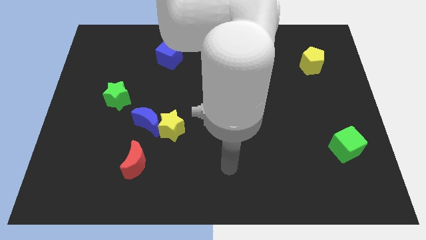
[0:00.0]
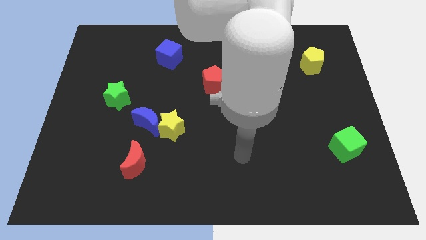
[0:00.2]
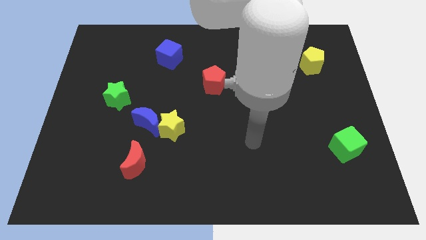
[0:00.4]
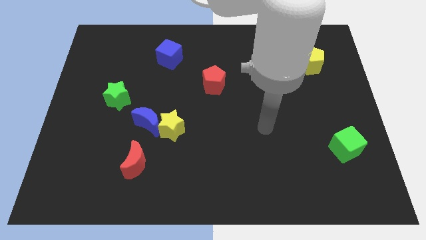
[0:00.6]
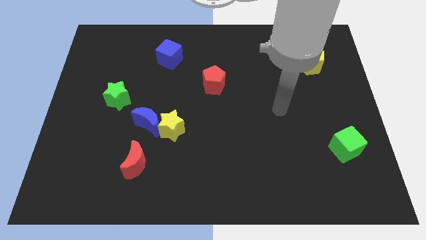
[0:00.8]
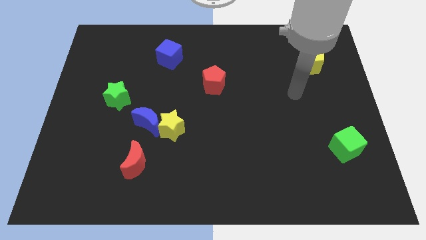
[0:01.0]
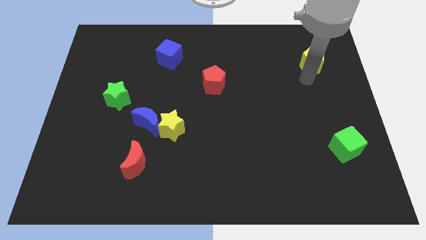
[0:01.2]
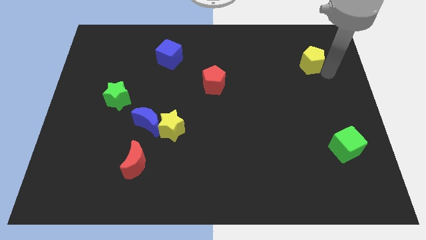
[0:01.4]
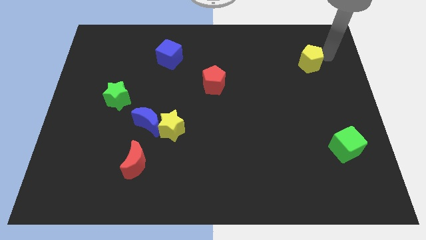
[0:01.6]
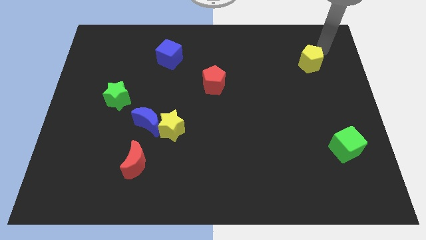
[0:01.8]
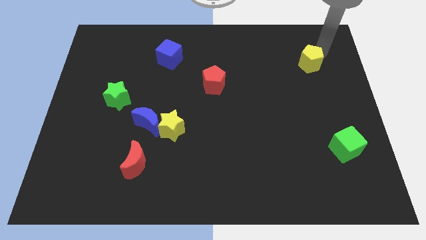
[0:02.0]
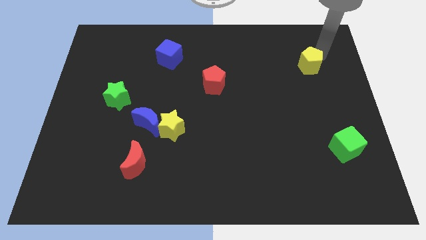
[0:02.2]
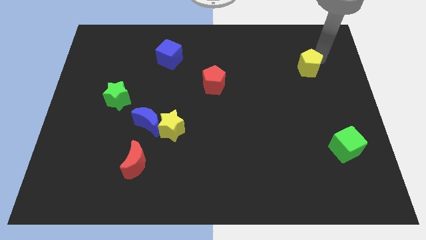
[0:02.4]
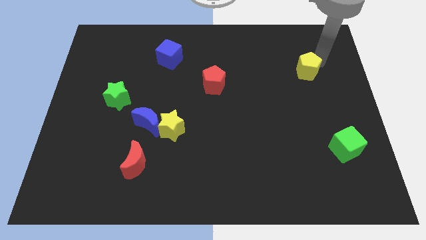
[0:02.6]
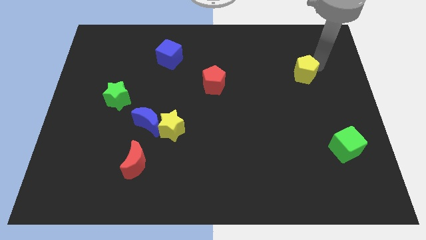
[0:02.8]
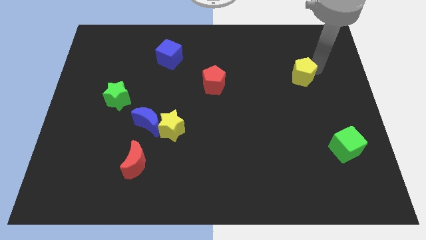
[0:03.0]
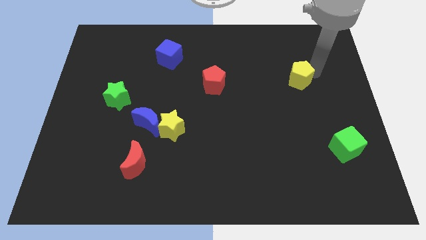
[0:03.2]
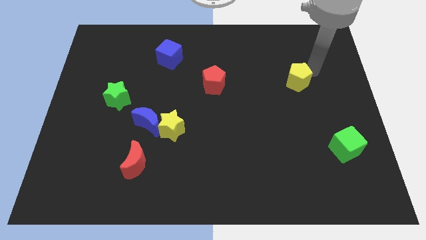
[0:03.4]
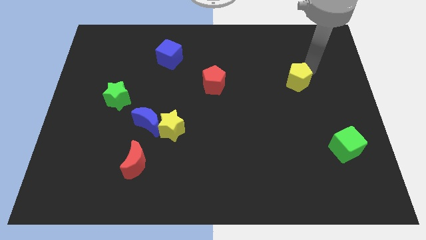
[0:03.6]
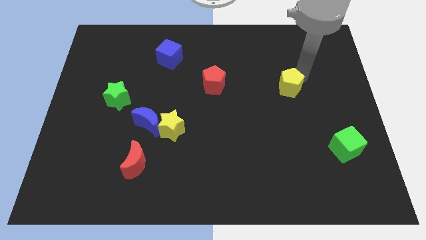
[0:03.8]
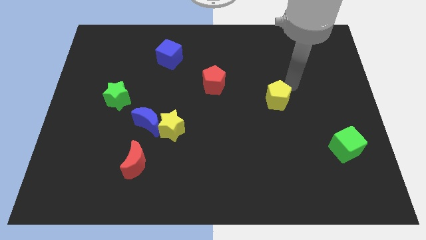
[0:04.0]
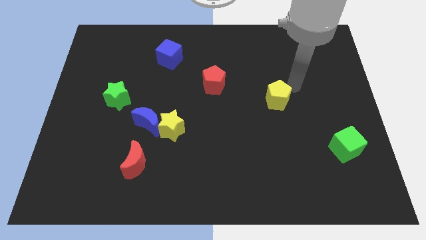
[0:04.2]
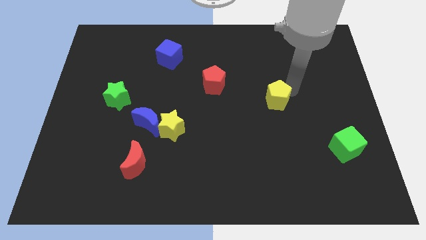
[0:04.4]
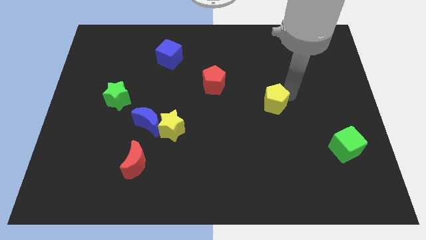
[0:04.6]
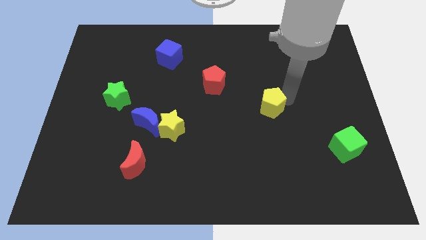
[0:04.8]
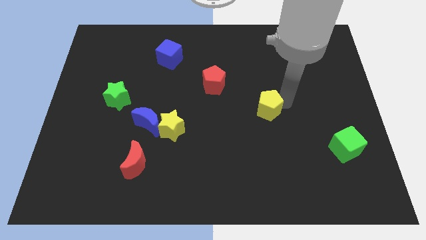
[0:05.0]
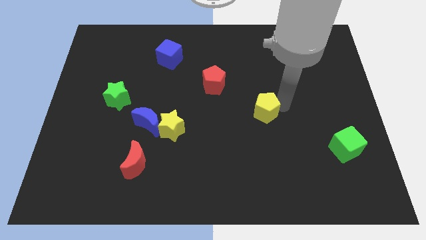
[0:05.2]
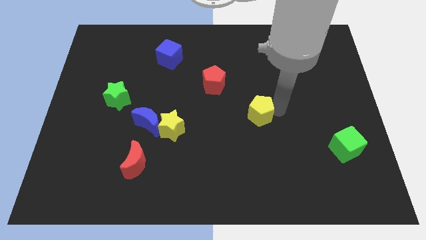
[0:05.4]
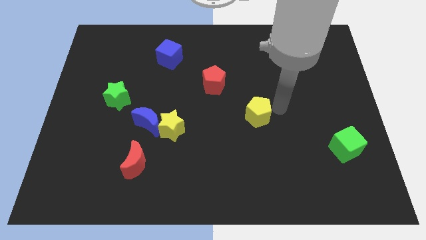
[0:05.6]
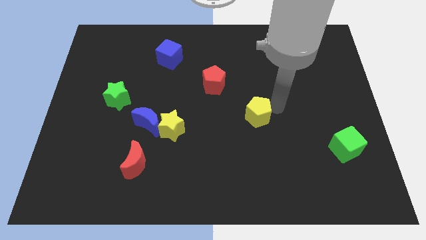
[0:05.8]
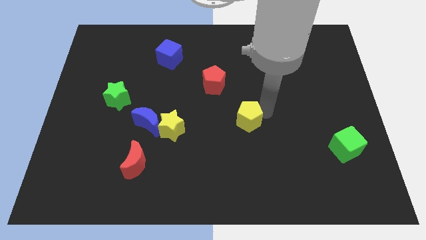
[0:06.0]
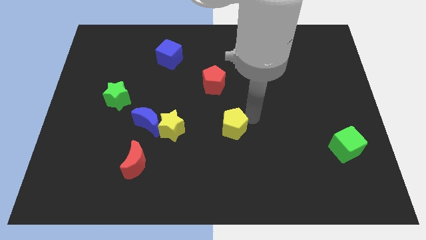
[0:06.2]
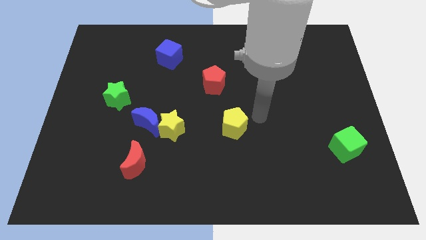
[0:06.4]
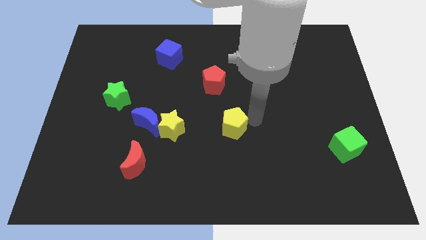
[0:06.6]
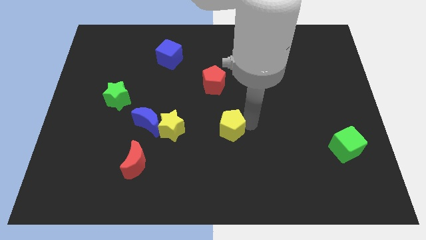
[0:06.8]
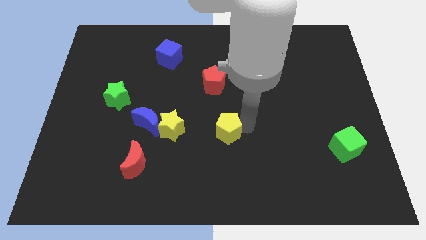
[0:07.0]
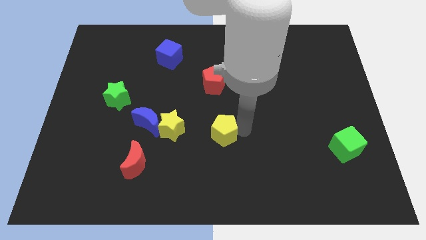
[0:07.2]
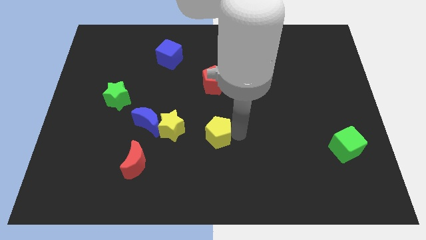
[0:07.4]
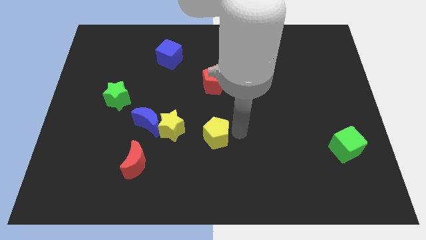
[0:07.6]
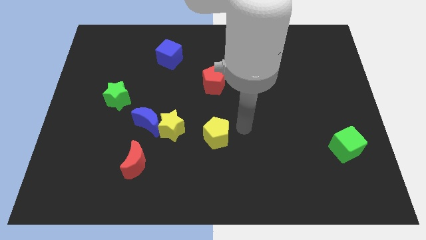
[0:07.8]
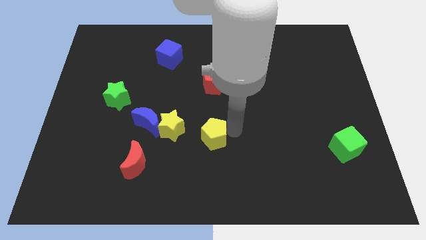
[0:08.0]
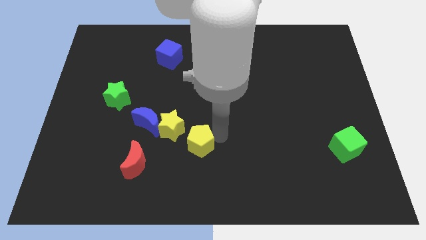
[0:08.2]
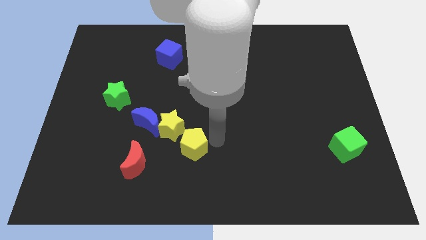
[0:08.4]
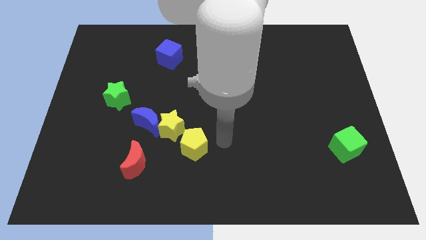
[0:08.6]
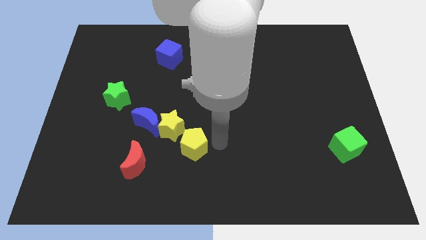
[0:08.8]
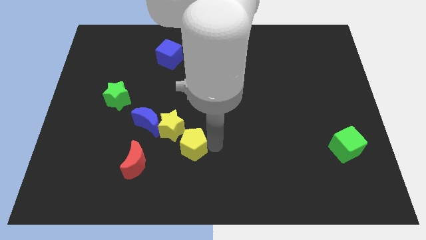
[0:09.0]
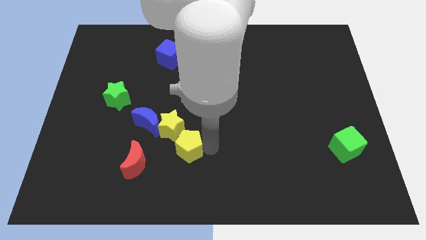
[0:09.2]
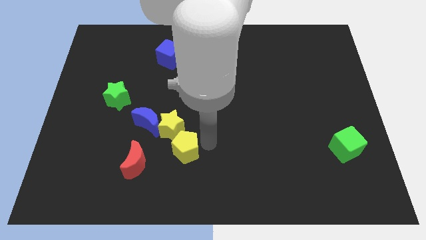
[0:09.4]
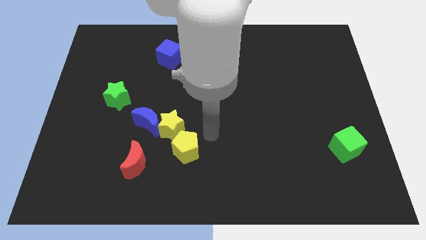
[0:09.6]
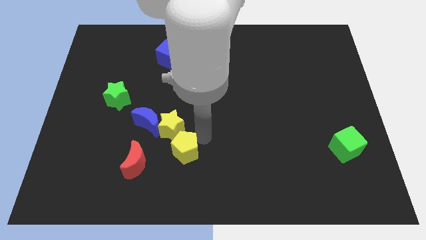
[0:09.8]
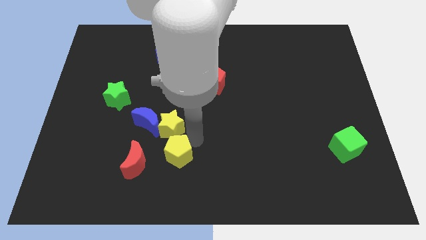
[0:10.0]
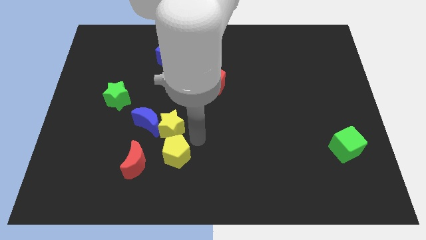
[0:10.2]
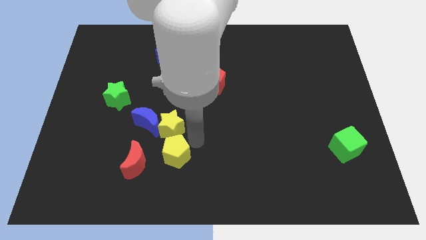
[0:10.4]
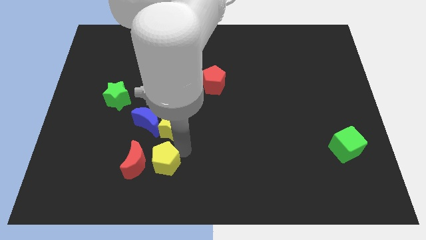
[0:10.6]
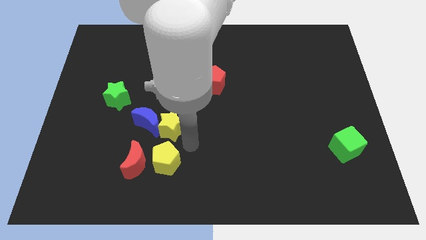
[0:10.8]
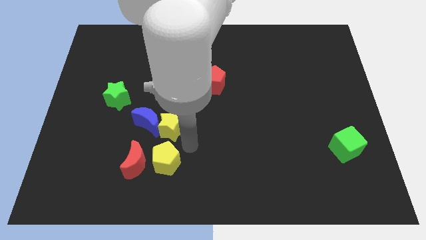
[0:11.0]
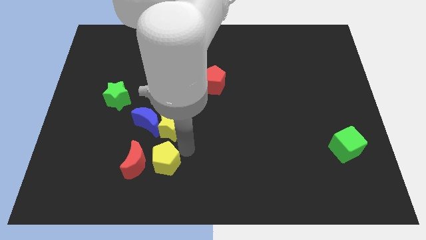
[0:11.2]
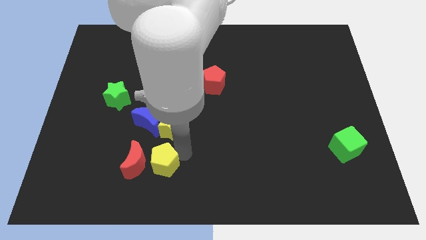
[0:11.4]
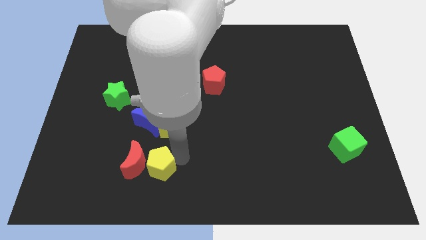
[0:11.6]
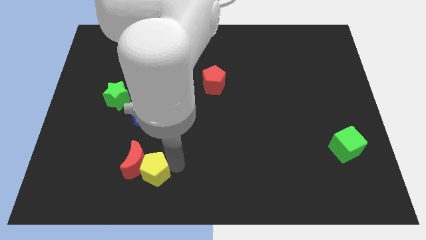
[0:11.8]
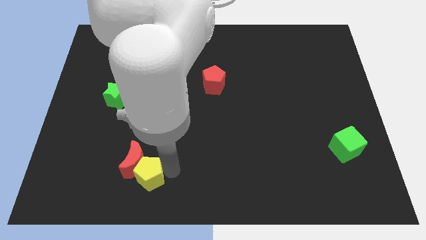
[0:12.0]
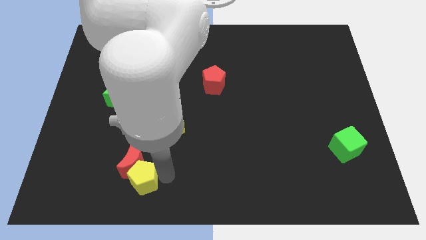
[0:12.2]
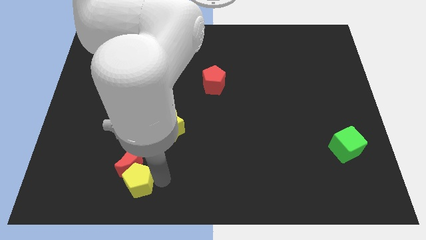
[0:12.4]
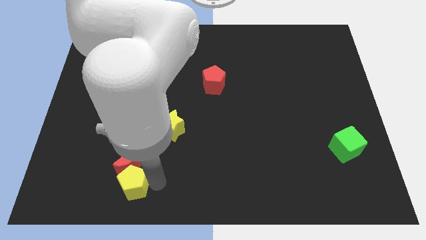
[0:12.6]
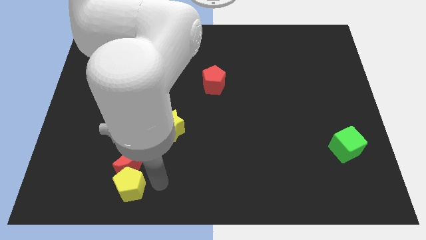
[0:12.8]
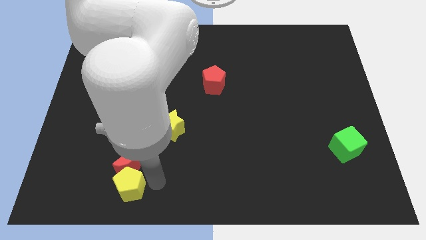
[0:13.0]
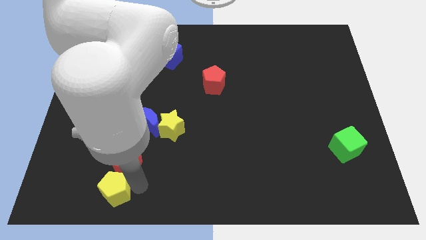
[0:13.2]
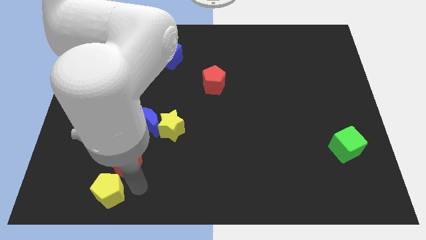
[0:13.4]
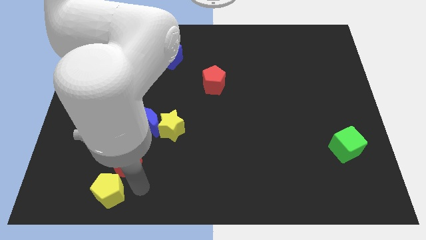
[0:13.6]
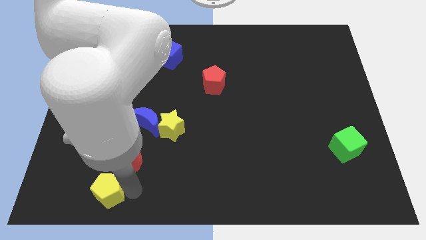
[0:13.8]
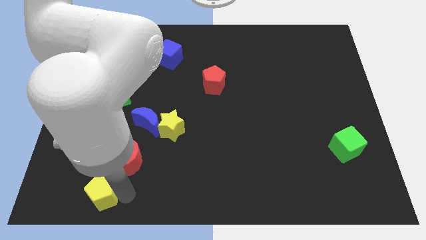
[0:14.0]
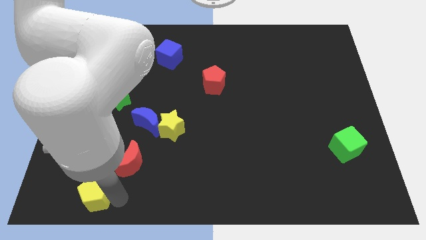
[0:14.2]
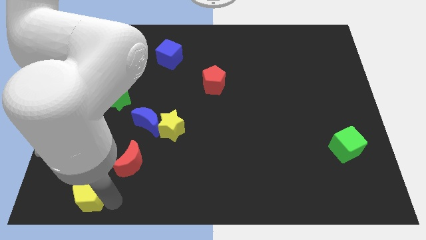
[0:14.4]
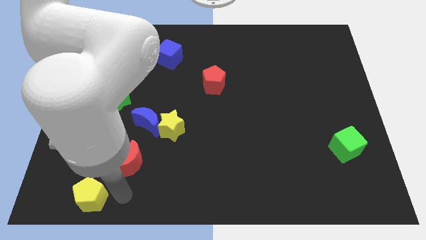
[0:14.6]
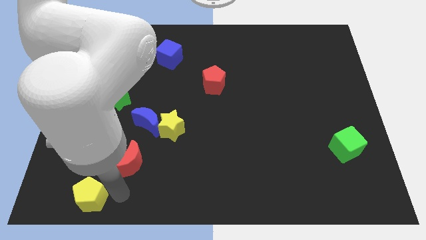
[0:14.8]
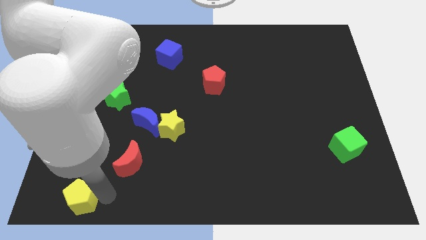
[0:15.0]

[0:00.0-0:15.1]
push the yellow pentagon to the bottom left corner
